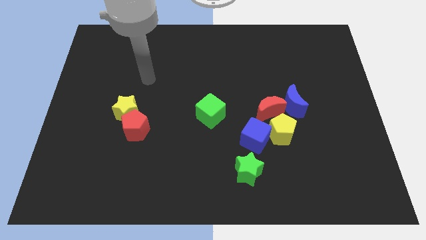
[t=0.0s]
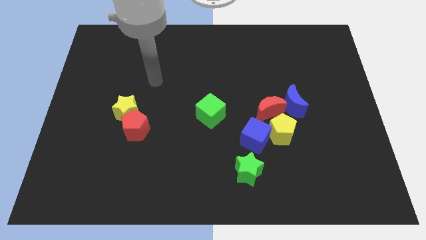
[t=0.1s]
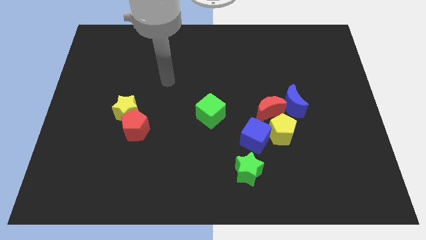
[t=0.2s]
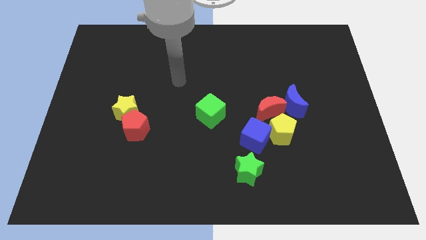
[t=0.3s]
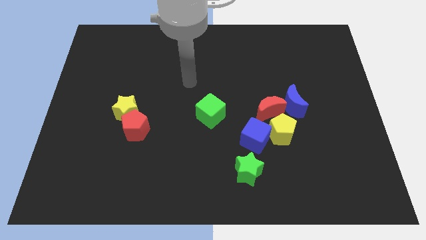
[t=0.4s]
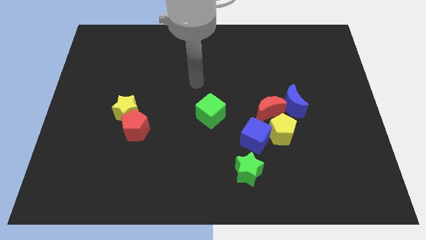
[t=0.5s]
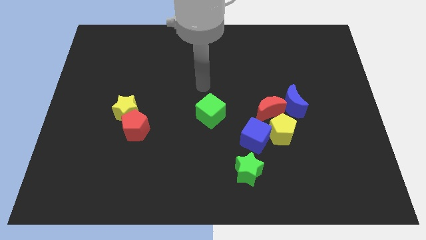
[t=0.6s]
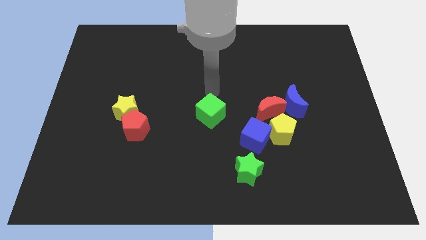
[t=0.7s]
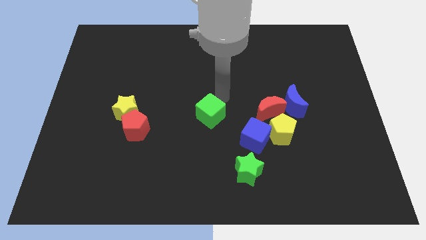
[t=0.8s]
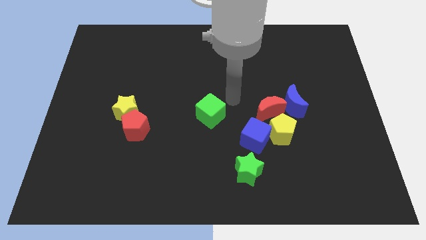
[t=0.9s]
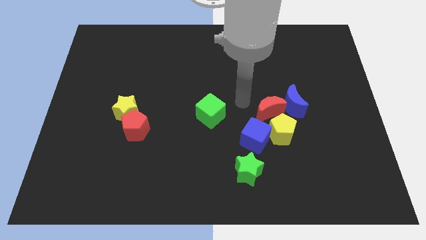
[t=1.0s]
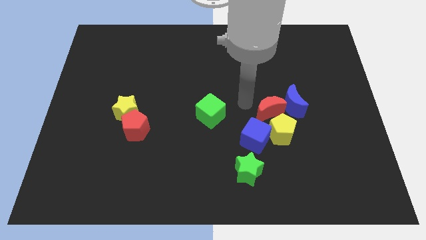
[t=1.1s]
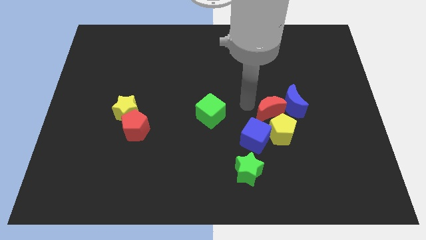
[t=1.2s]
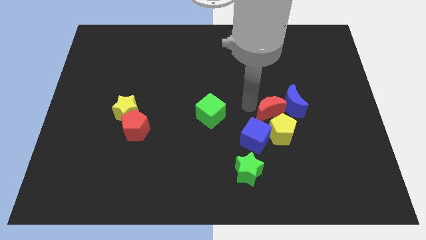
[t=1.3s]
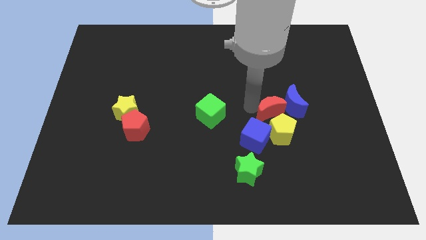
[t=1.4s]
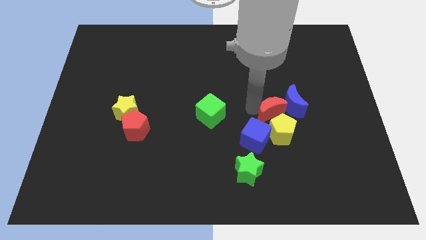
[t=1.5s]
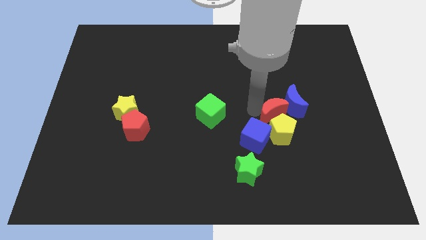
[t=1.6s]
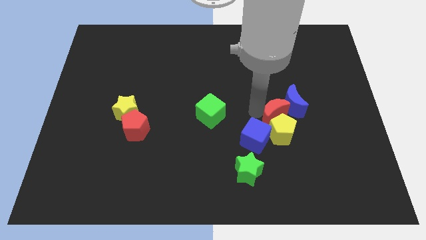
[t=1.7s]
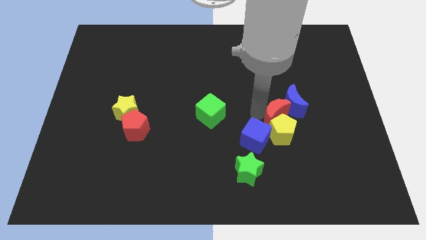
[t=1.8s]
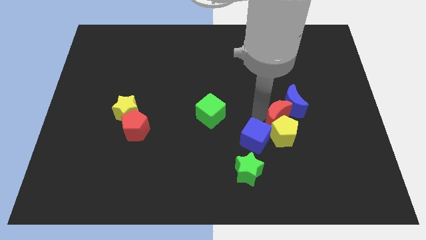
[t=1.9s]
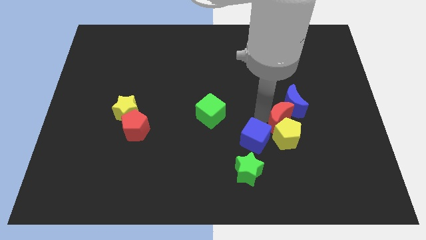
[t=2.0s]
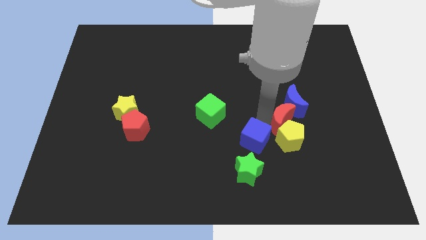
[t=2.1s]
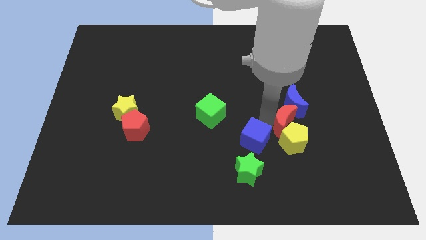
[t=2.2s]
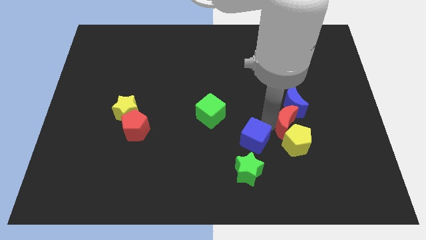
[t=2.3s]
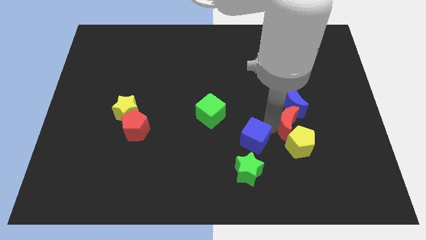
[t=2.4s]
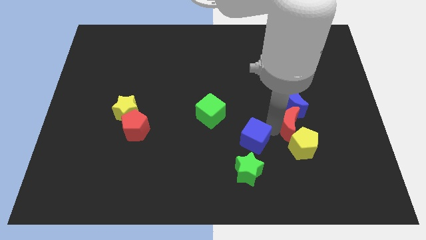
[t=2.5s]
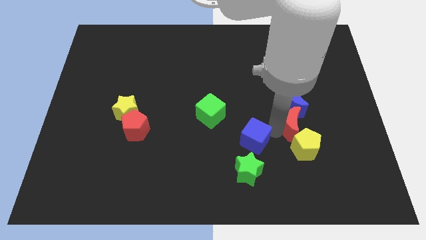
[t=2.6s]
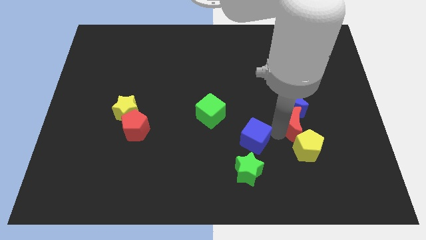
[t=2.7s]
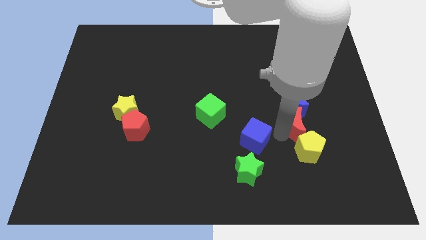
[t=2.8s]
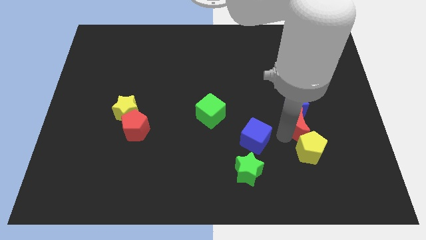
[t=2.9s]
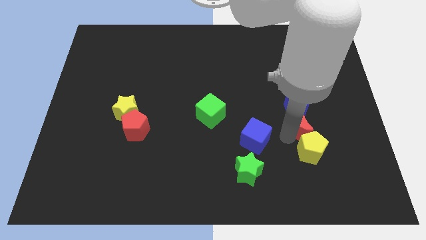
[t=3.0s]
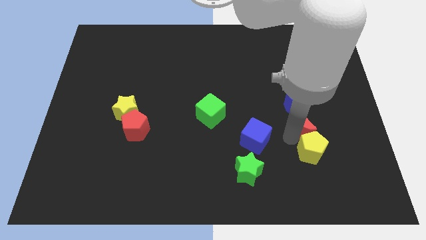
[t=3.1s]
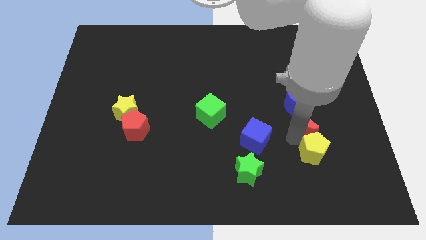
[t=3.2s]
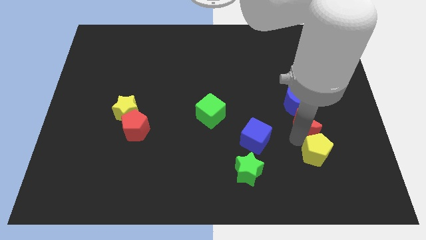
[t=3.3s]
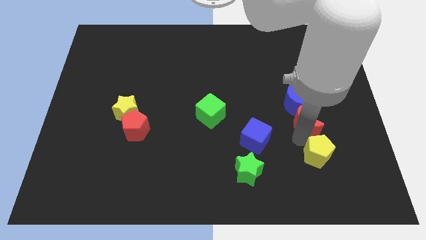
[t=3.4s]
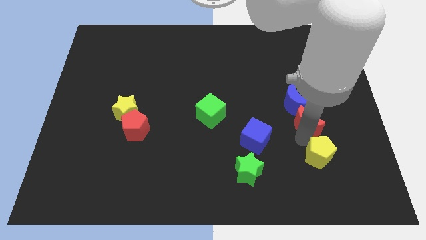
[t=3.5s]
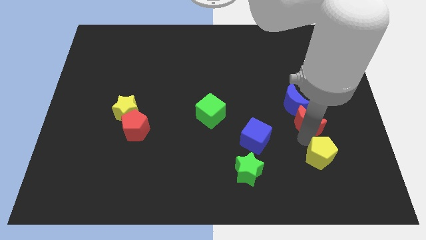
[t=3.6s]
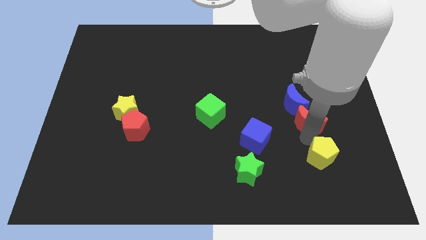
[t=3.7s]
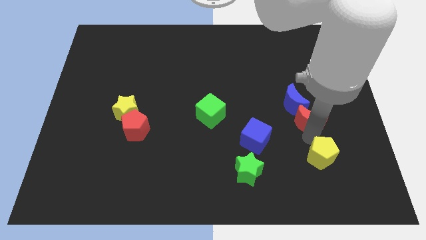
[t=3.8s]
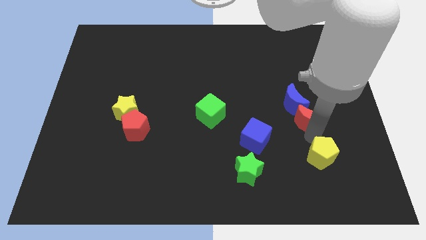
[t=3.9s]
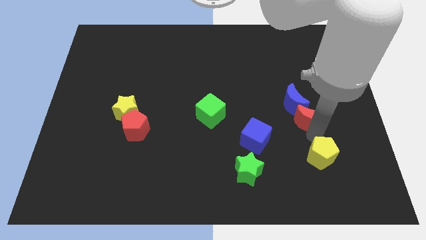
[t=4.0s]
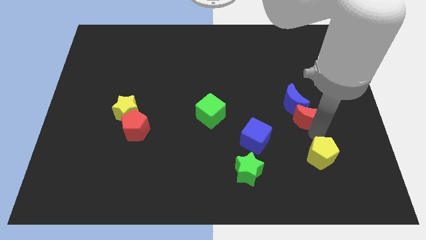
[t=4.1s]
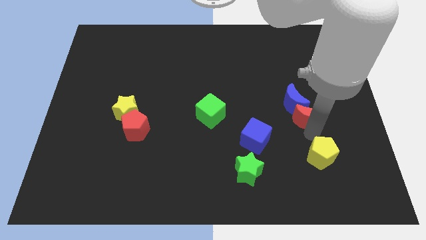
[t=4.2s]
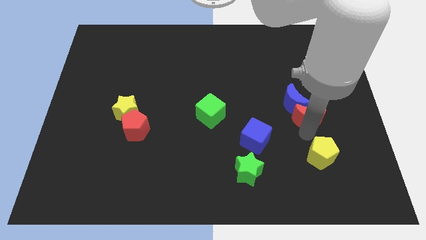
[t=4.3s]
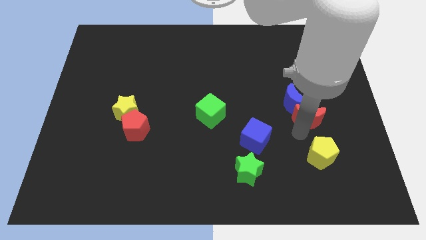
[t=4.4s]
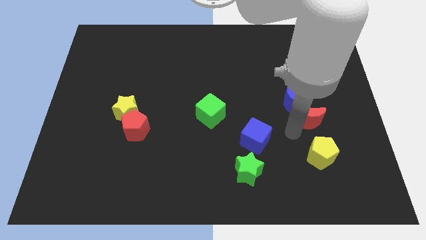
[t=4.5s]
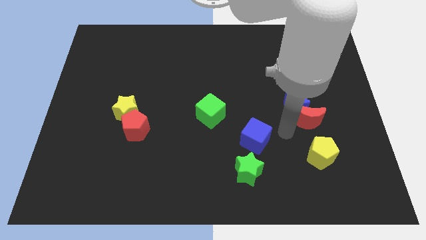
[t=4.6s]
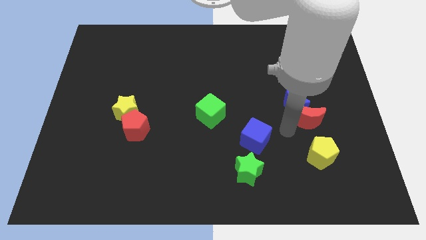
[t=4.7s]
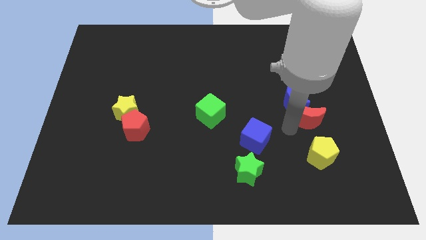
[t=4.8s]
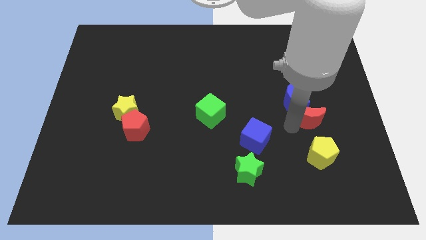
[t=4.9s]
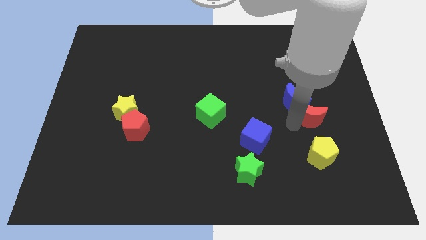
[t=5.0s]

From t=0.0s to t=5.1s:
move the red moon just right of the blue moon

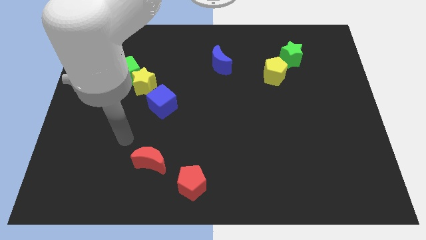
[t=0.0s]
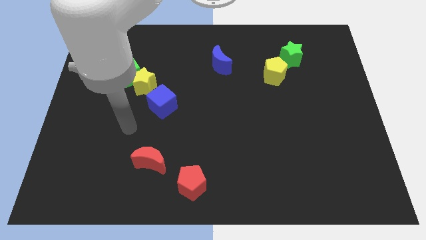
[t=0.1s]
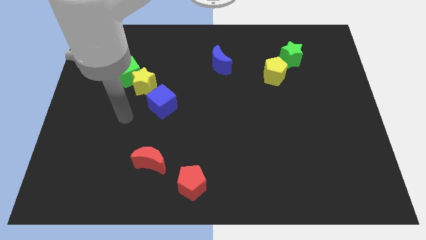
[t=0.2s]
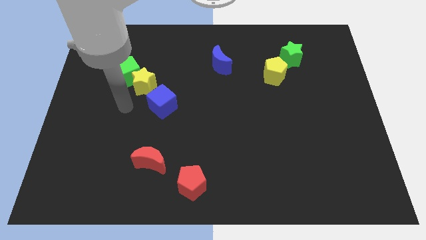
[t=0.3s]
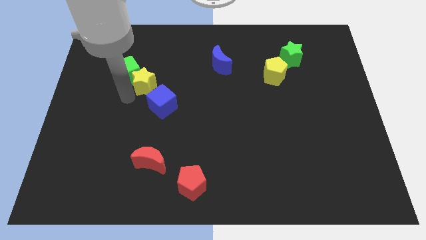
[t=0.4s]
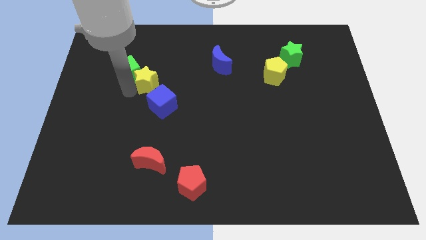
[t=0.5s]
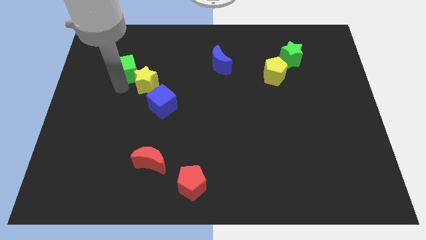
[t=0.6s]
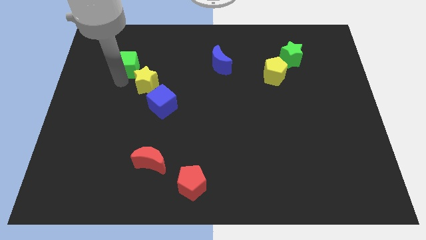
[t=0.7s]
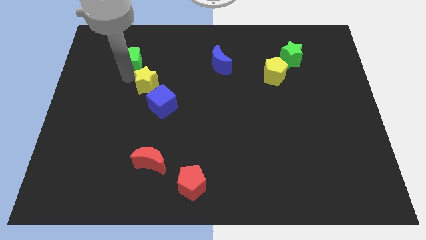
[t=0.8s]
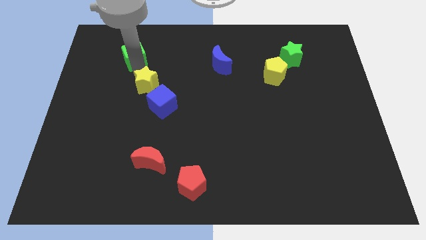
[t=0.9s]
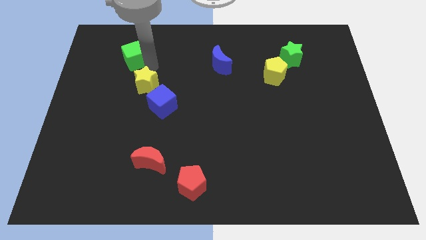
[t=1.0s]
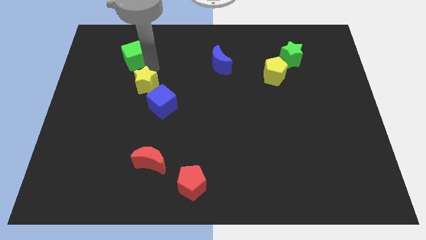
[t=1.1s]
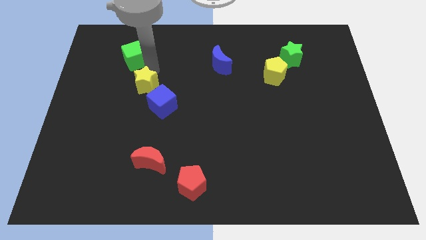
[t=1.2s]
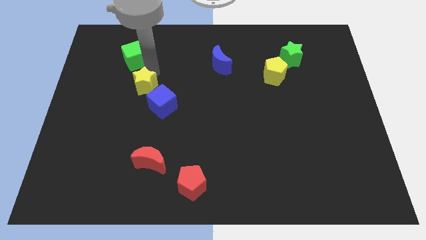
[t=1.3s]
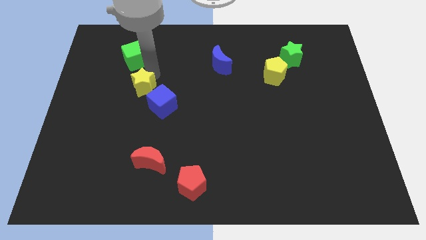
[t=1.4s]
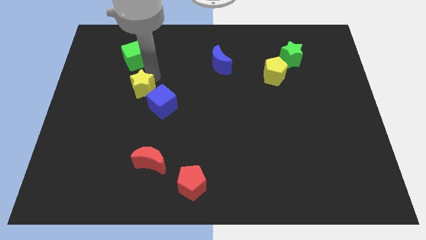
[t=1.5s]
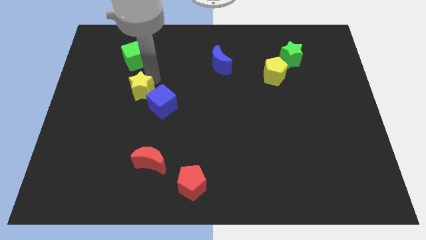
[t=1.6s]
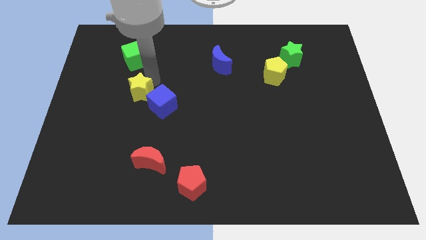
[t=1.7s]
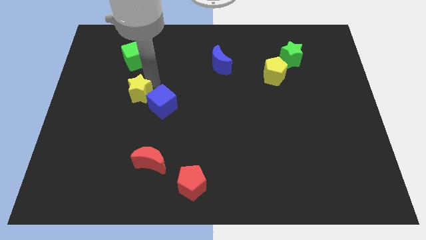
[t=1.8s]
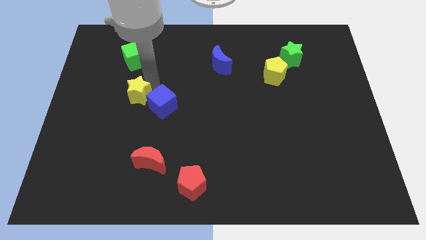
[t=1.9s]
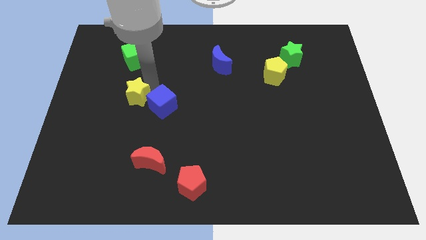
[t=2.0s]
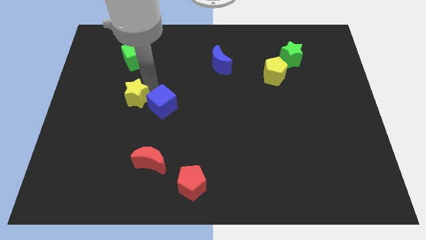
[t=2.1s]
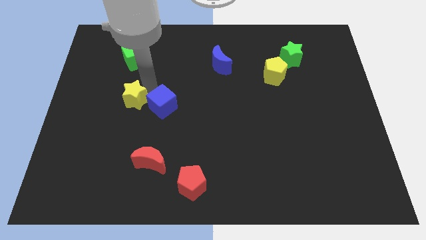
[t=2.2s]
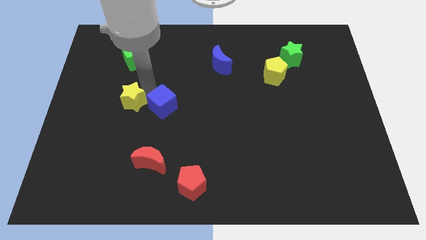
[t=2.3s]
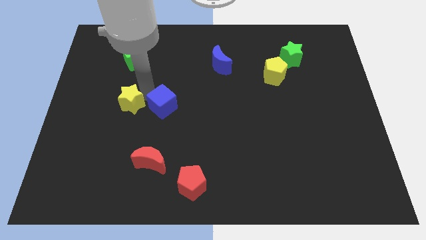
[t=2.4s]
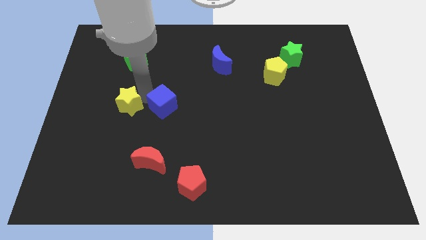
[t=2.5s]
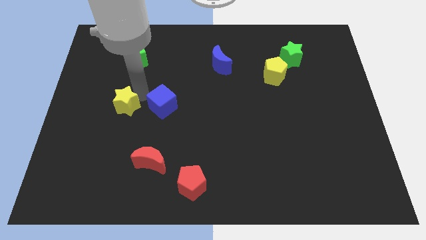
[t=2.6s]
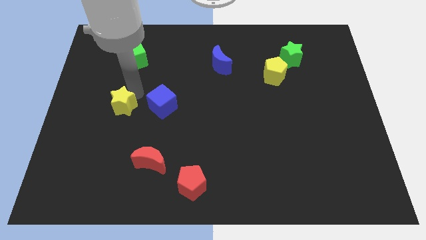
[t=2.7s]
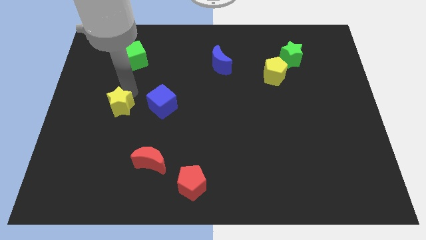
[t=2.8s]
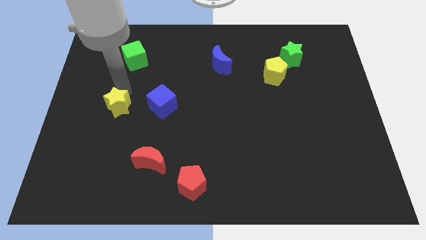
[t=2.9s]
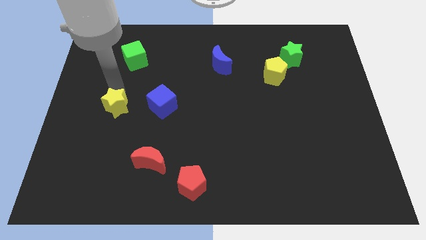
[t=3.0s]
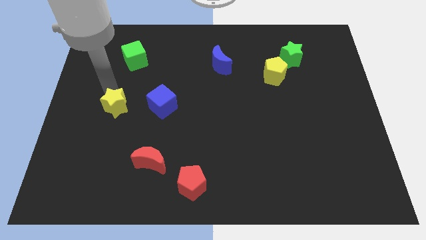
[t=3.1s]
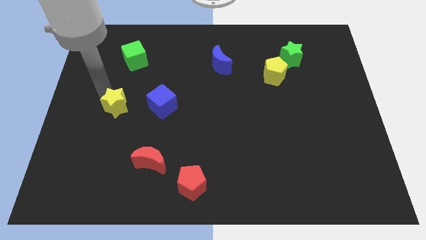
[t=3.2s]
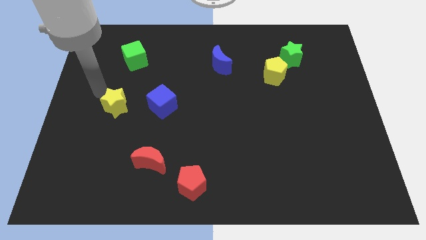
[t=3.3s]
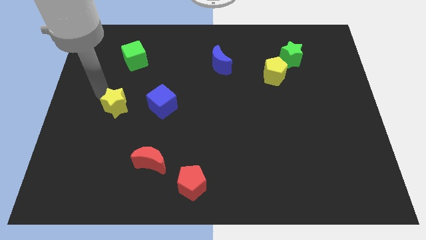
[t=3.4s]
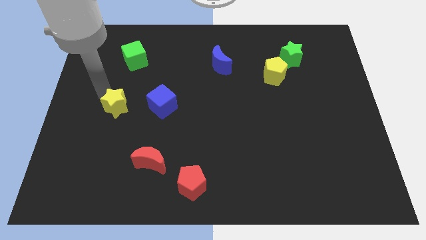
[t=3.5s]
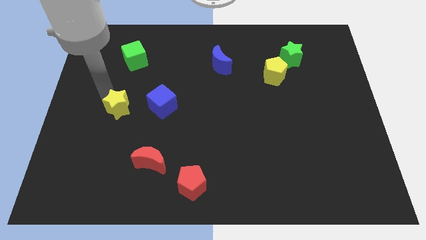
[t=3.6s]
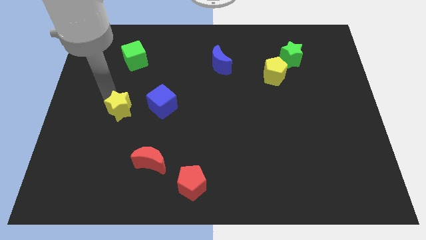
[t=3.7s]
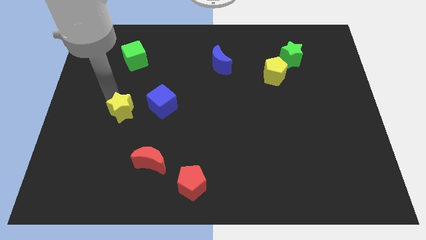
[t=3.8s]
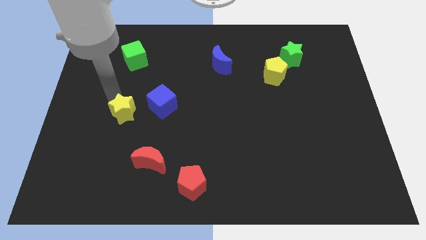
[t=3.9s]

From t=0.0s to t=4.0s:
move the yellow star to the bottom left side of the blue cube
